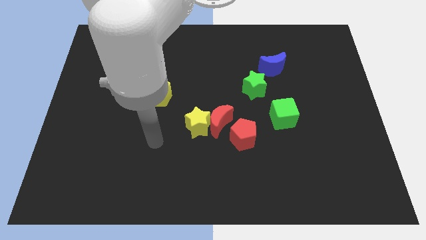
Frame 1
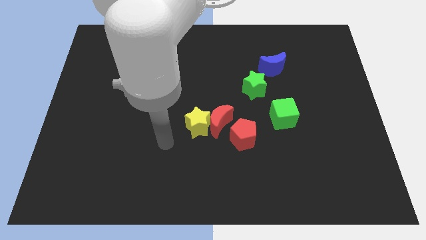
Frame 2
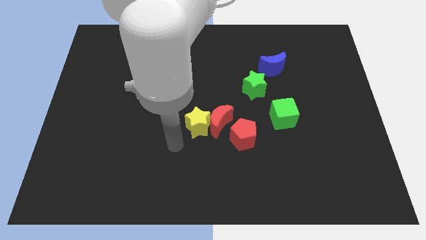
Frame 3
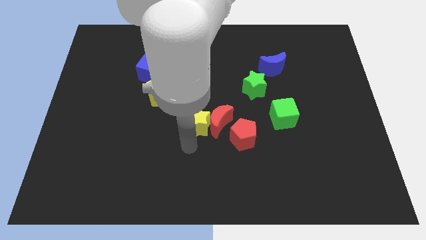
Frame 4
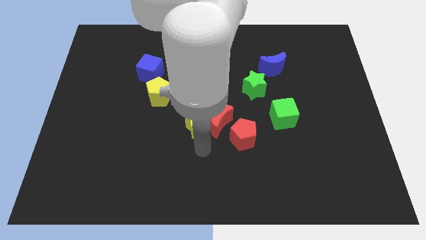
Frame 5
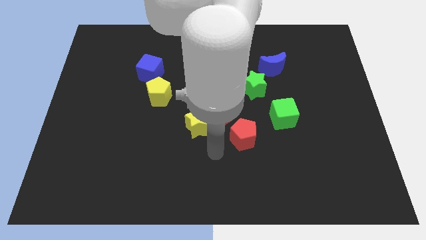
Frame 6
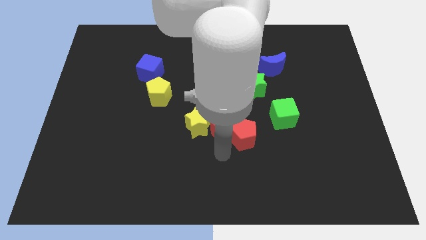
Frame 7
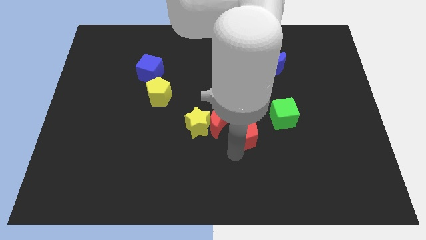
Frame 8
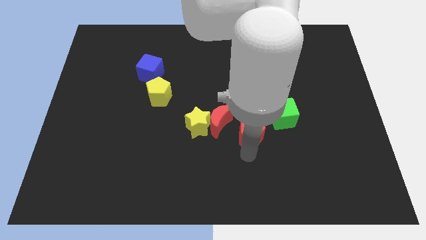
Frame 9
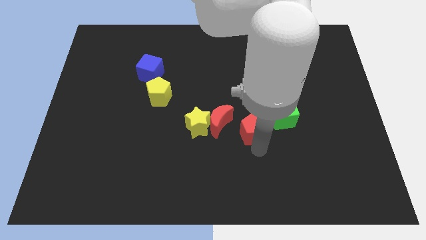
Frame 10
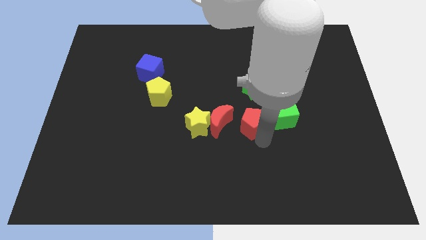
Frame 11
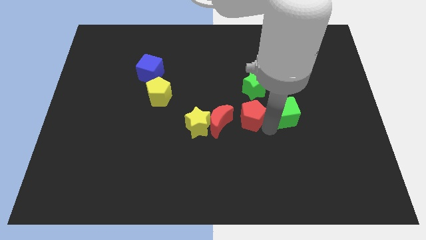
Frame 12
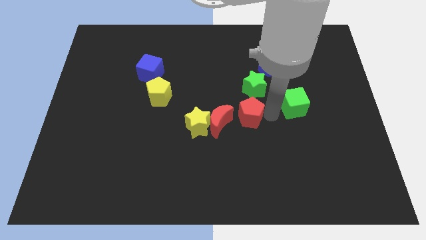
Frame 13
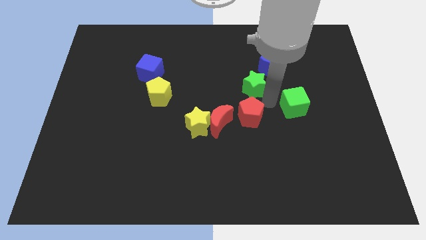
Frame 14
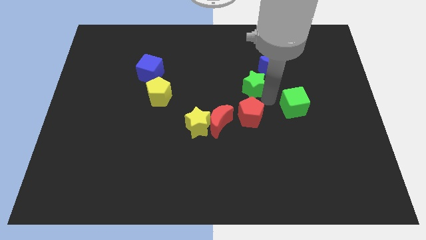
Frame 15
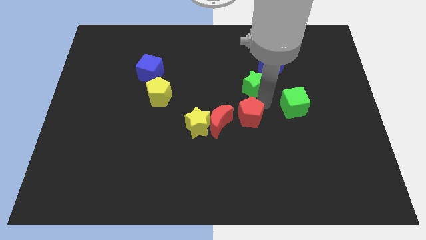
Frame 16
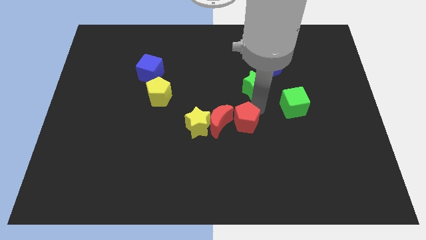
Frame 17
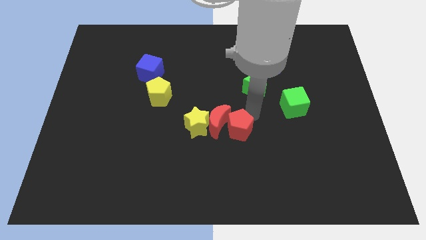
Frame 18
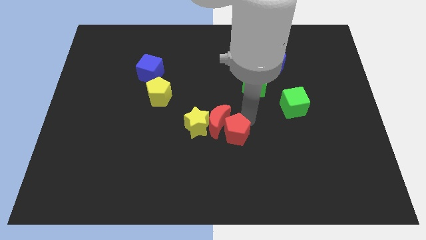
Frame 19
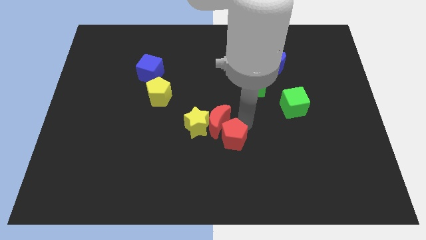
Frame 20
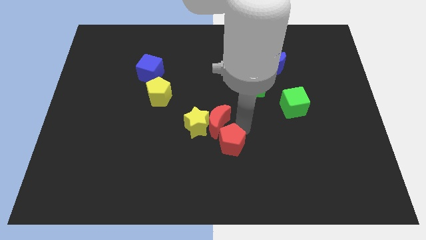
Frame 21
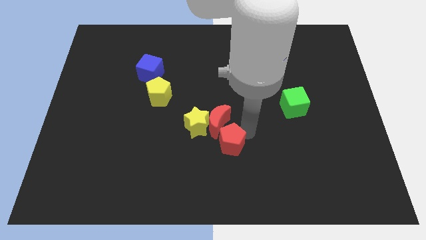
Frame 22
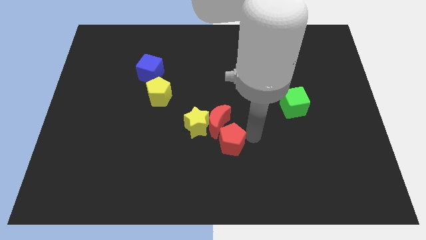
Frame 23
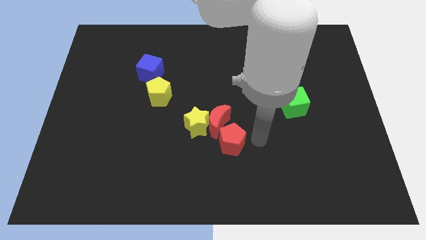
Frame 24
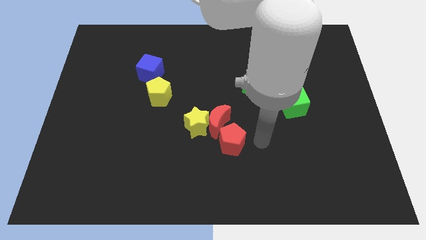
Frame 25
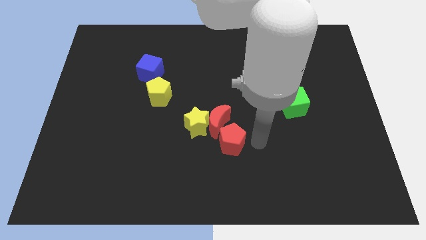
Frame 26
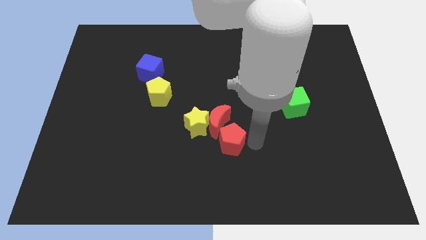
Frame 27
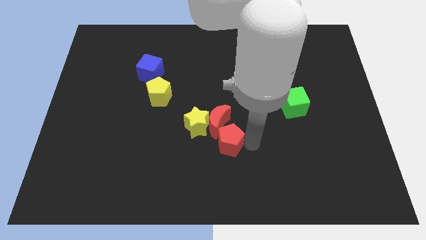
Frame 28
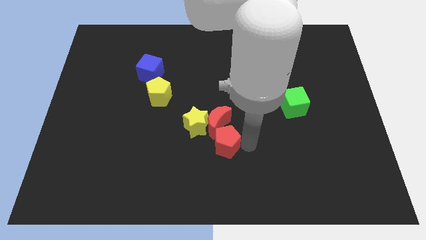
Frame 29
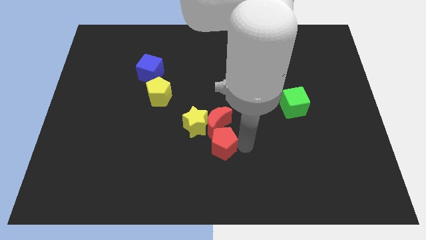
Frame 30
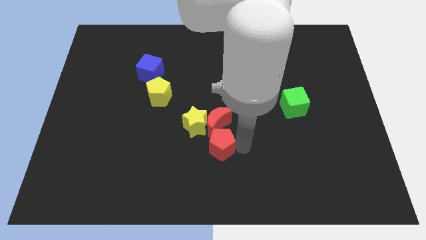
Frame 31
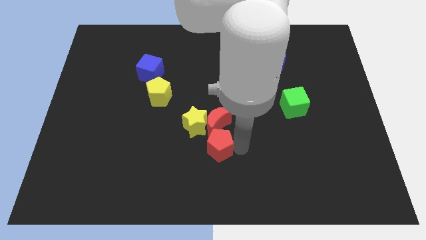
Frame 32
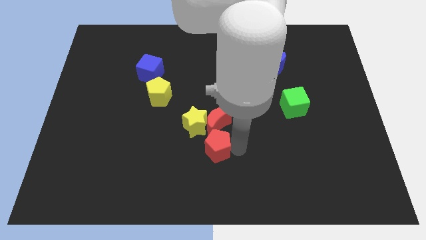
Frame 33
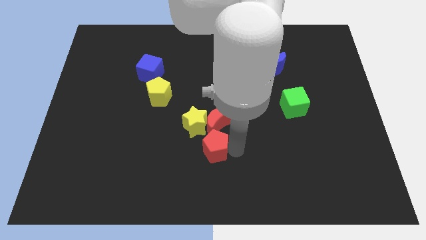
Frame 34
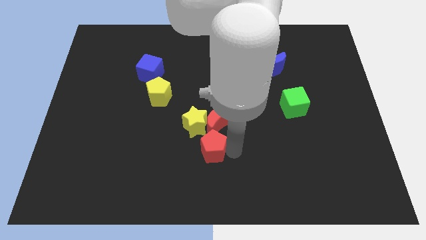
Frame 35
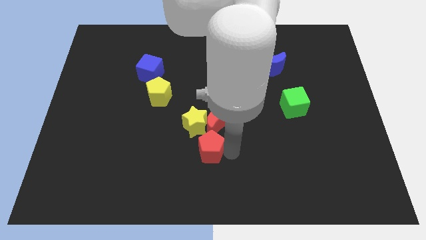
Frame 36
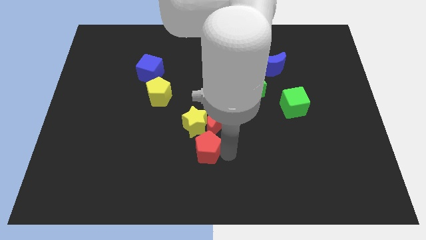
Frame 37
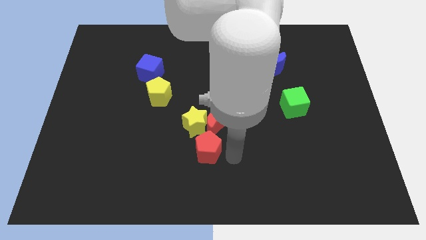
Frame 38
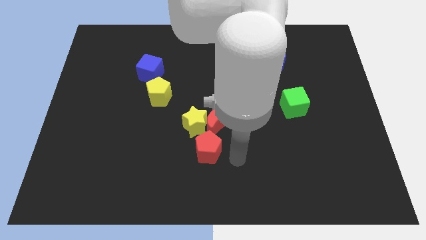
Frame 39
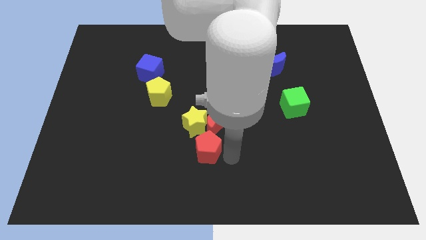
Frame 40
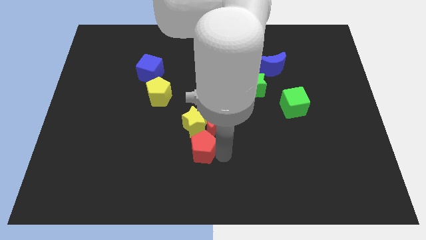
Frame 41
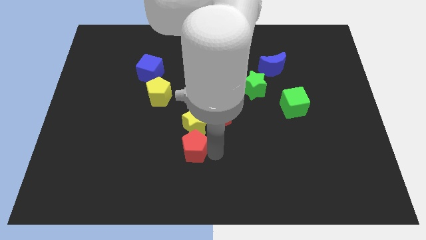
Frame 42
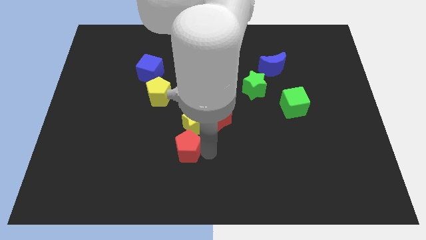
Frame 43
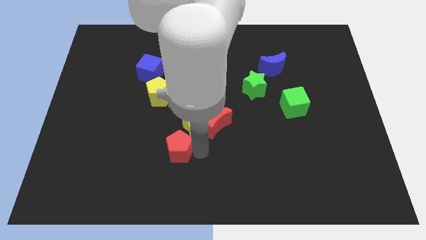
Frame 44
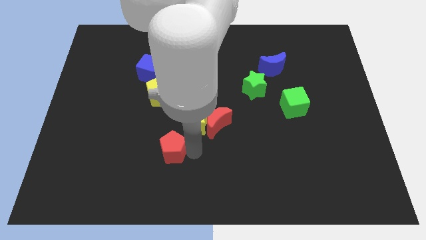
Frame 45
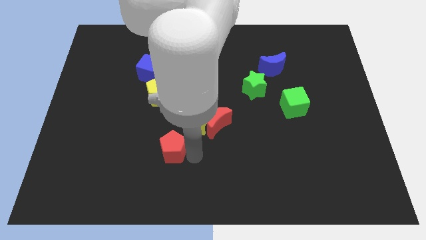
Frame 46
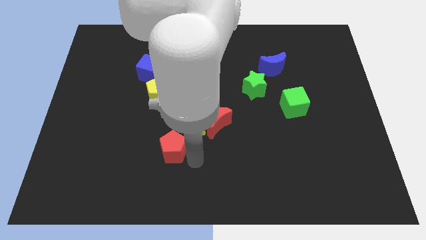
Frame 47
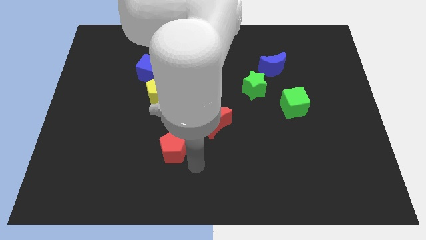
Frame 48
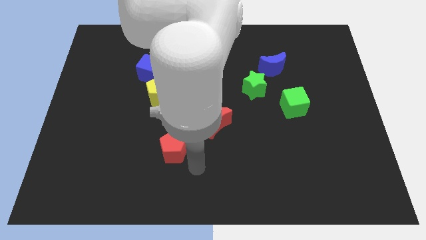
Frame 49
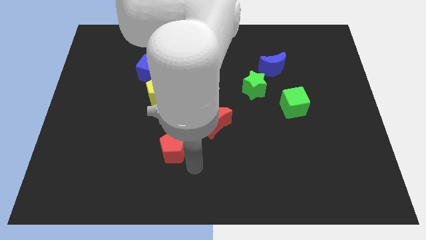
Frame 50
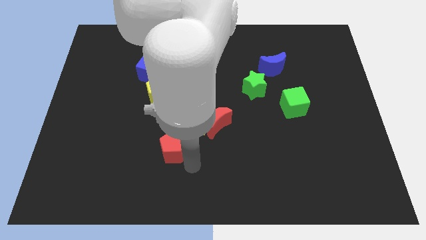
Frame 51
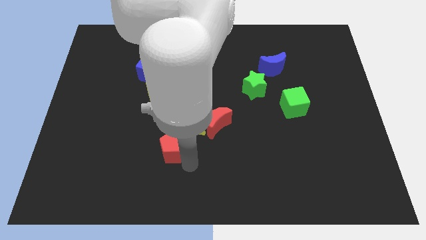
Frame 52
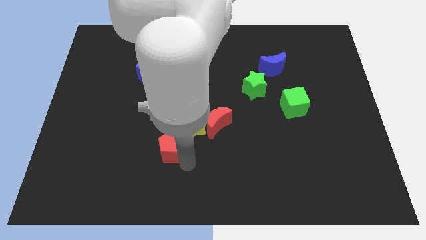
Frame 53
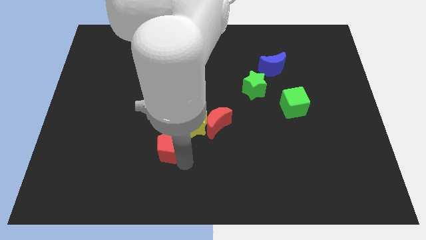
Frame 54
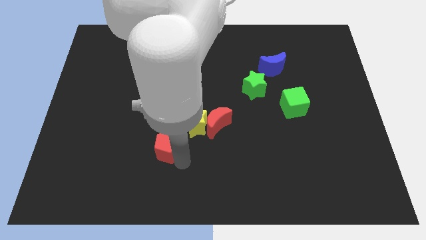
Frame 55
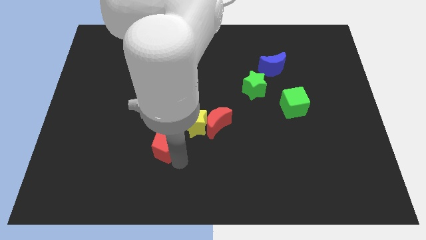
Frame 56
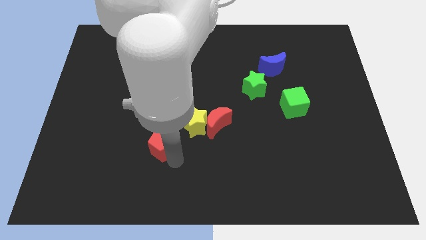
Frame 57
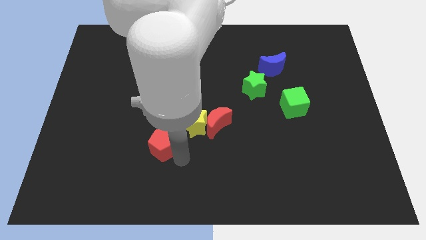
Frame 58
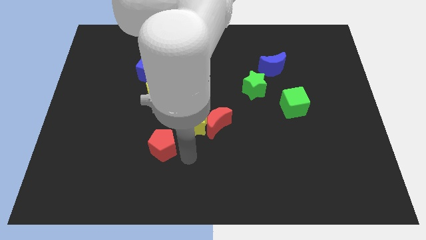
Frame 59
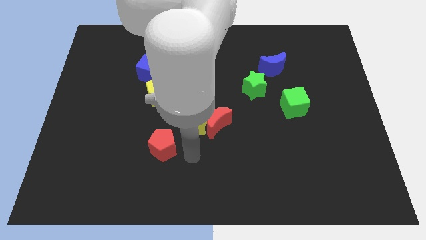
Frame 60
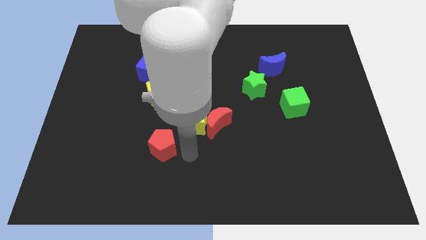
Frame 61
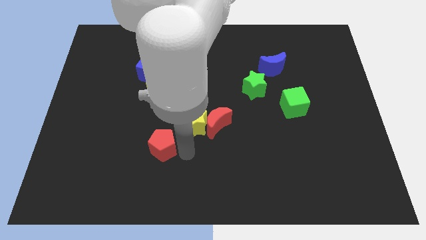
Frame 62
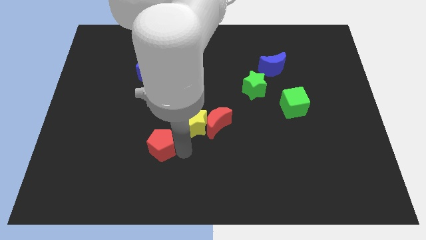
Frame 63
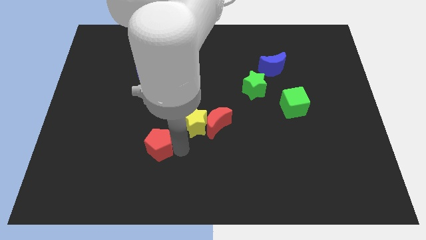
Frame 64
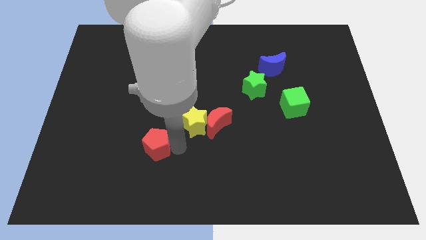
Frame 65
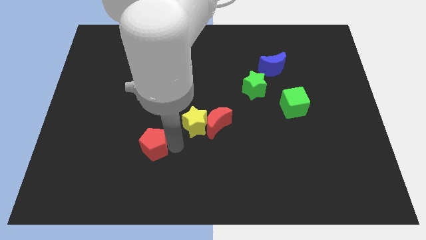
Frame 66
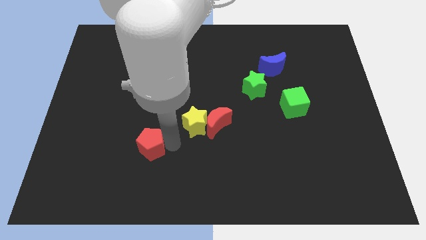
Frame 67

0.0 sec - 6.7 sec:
move the red pentagon to the left

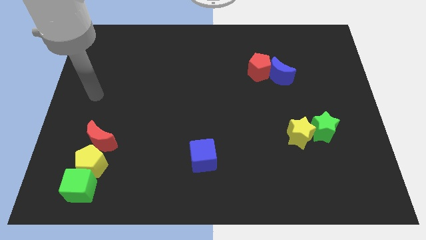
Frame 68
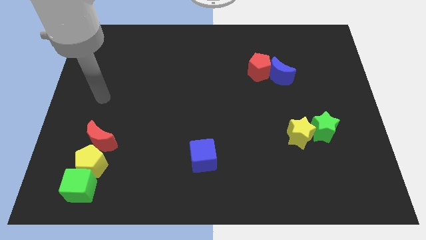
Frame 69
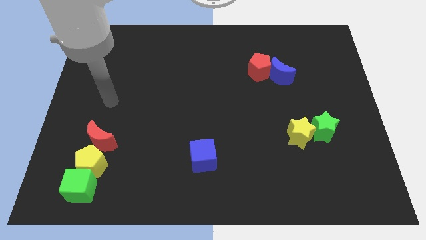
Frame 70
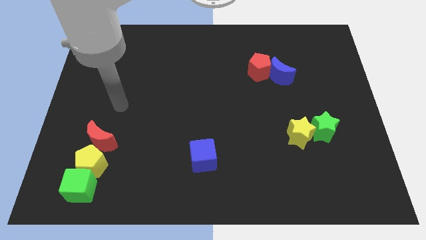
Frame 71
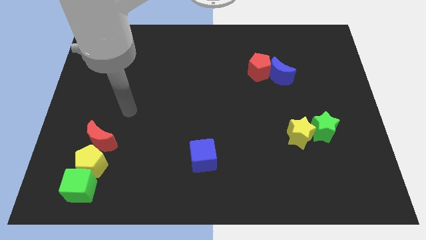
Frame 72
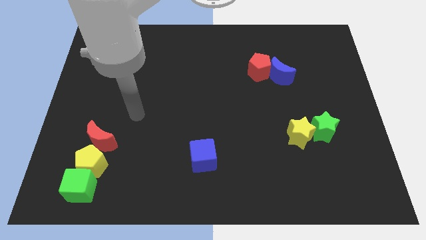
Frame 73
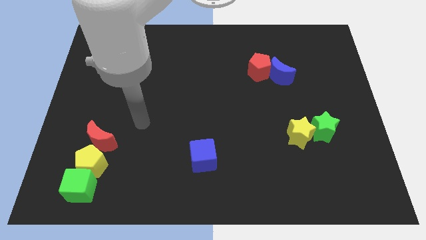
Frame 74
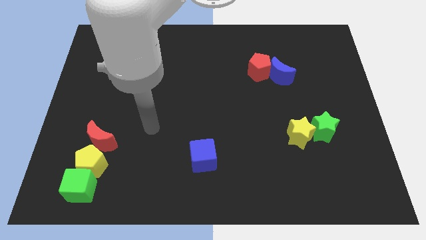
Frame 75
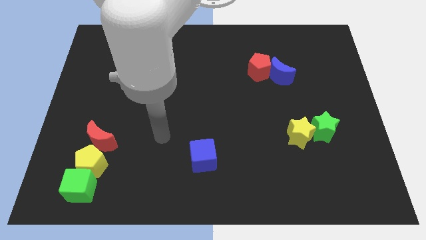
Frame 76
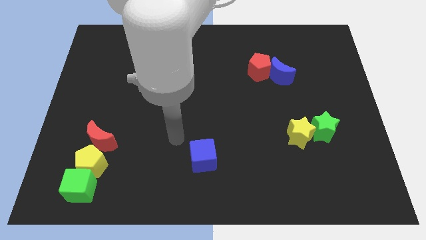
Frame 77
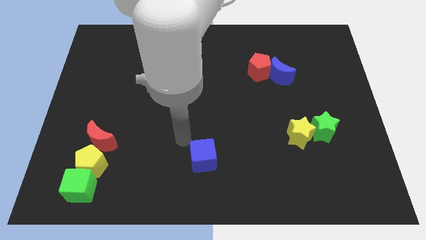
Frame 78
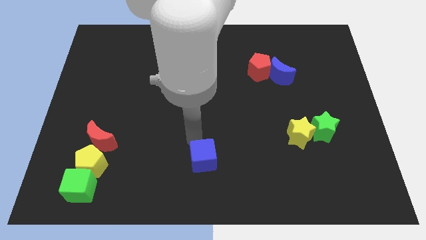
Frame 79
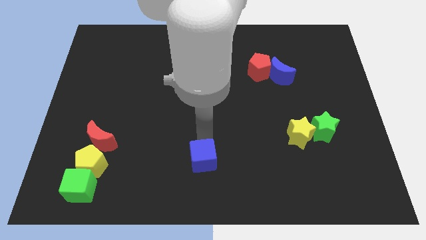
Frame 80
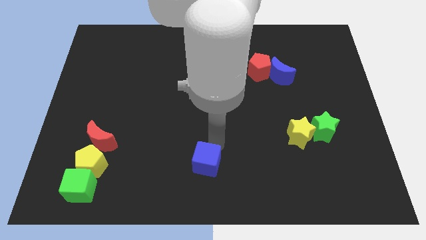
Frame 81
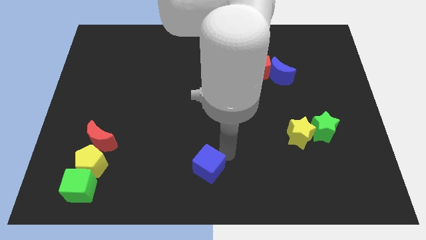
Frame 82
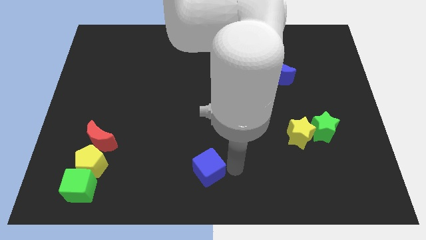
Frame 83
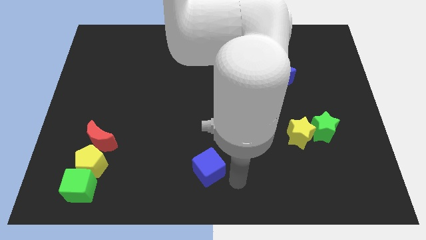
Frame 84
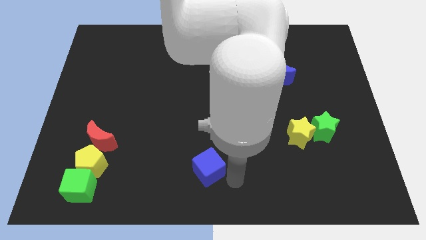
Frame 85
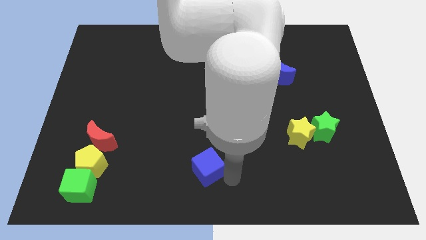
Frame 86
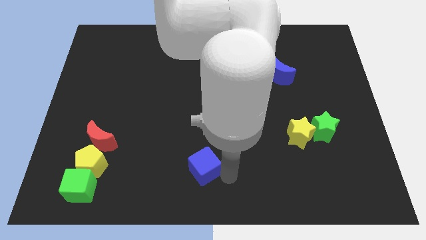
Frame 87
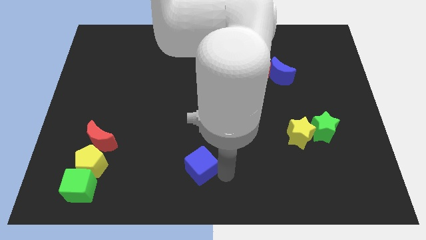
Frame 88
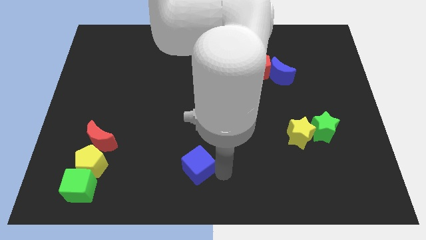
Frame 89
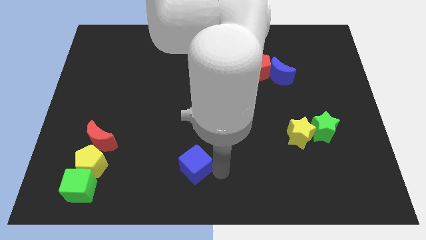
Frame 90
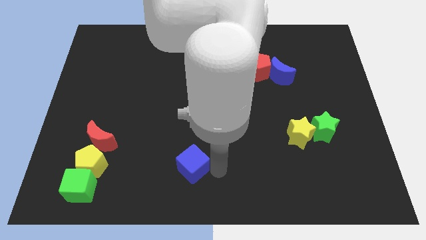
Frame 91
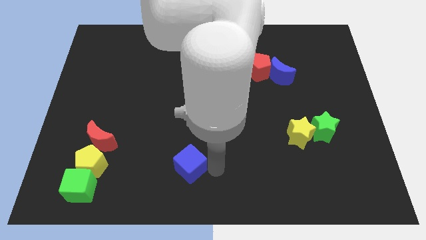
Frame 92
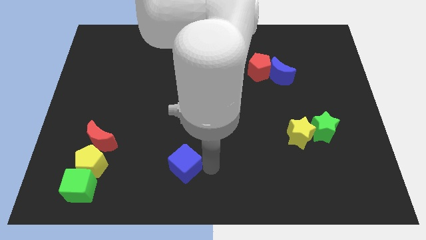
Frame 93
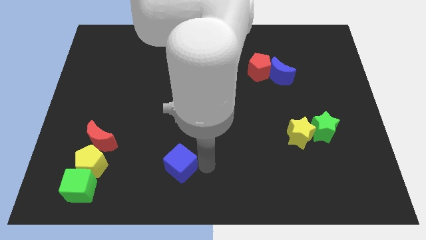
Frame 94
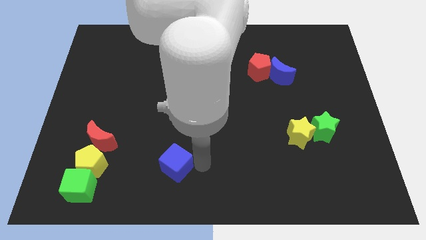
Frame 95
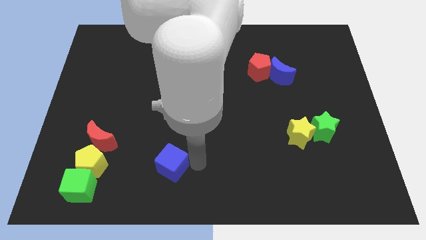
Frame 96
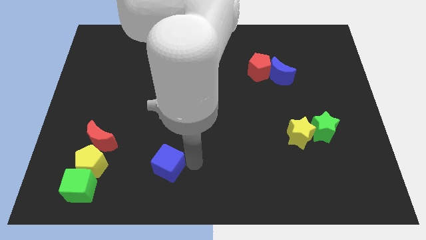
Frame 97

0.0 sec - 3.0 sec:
push the blue cube somewhat to the left
